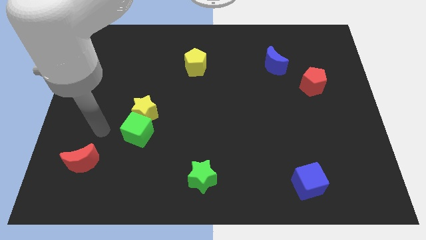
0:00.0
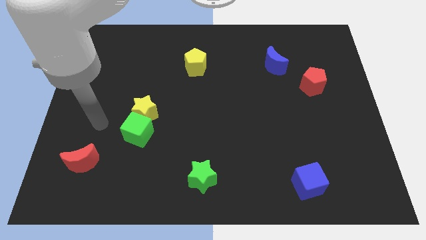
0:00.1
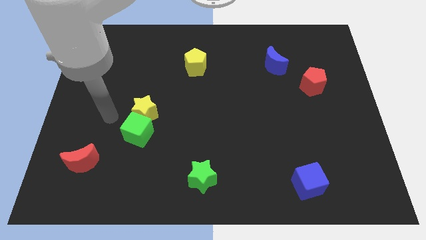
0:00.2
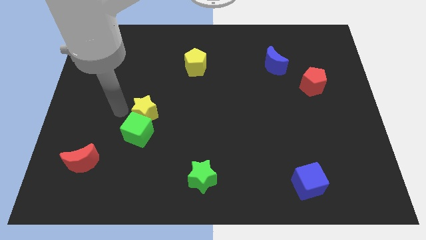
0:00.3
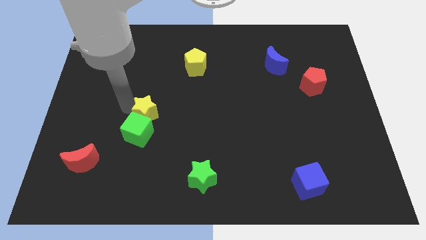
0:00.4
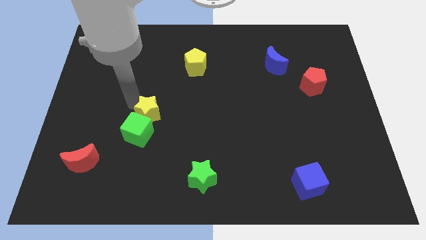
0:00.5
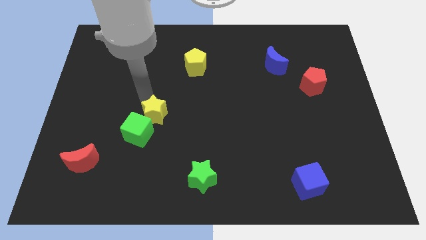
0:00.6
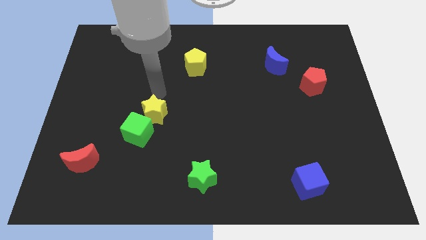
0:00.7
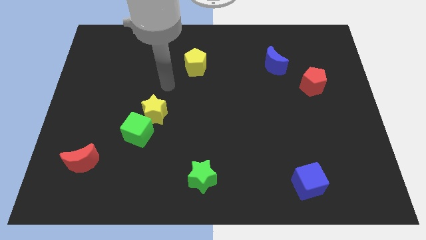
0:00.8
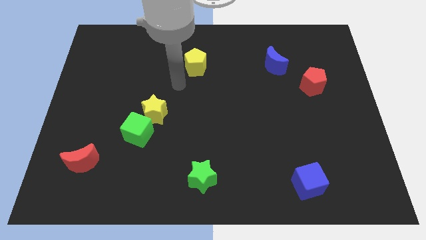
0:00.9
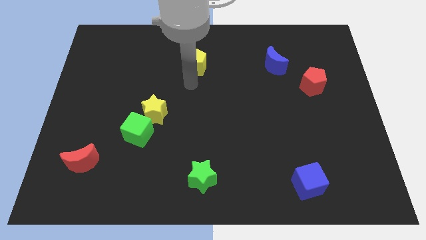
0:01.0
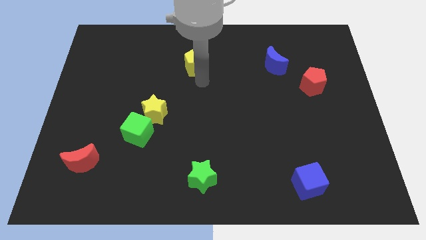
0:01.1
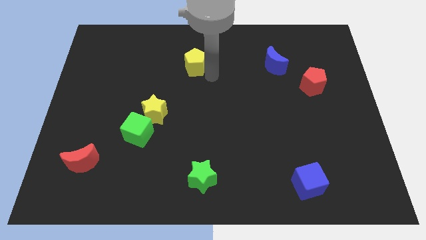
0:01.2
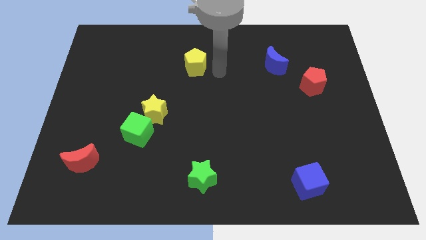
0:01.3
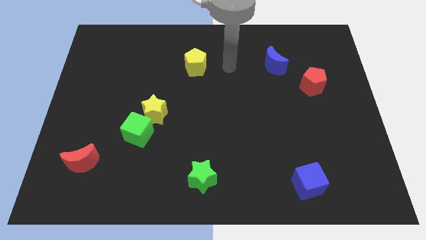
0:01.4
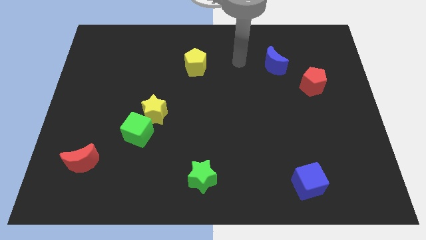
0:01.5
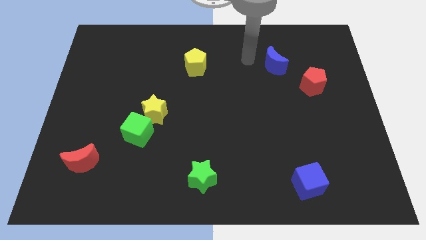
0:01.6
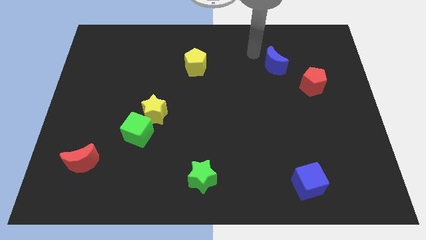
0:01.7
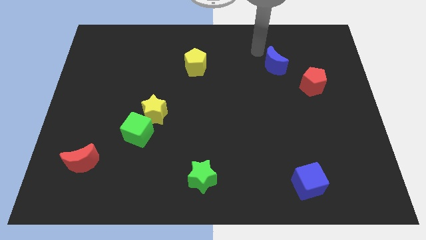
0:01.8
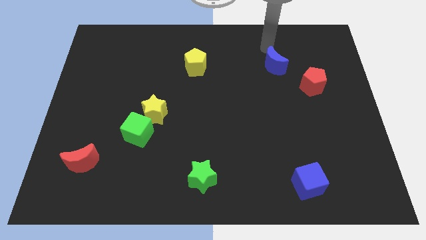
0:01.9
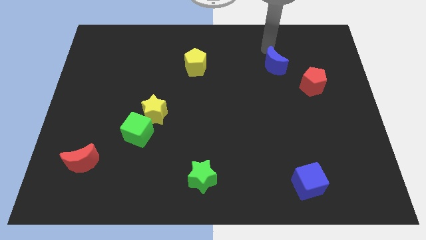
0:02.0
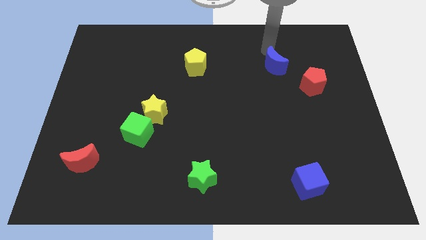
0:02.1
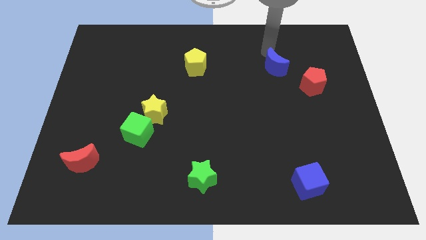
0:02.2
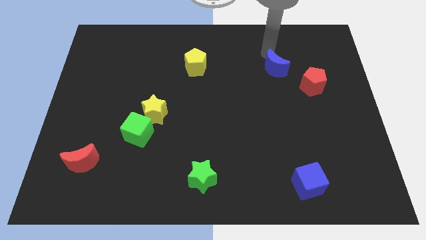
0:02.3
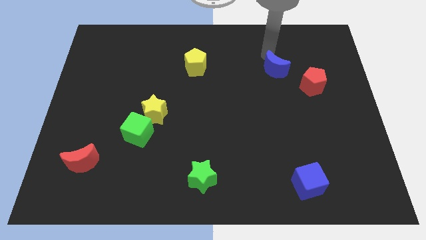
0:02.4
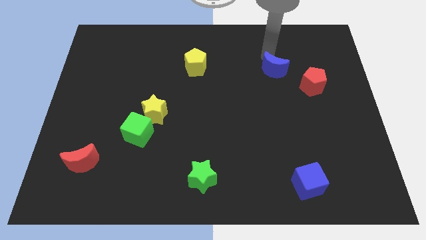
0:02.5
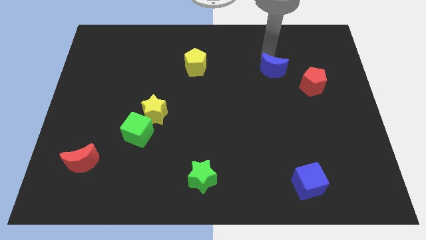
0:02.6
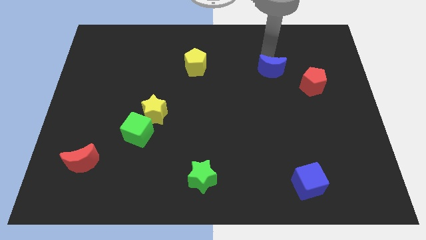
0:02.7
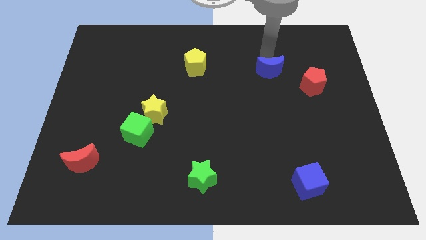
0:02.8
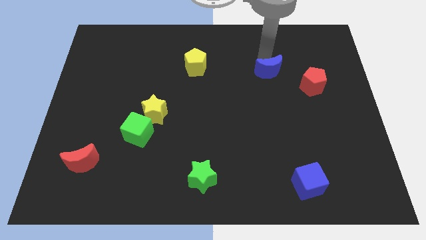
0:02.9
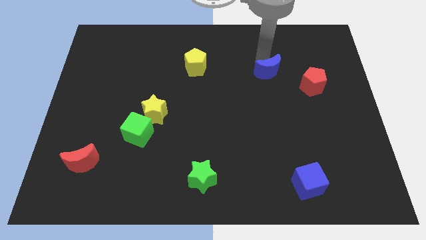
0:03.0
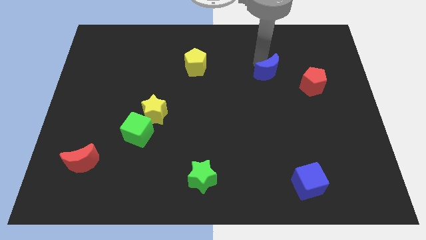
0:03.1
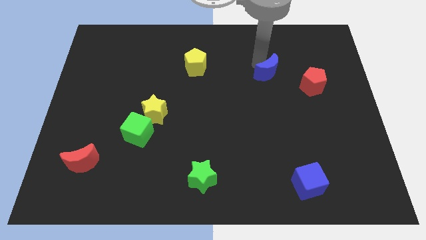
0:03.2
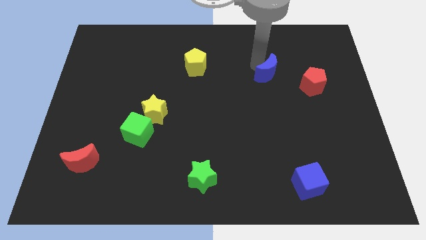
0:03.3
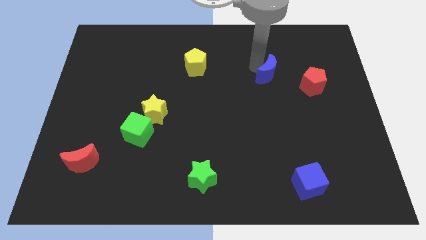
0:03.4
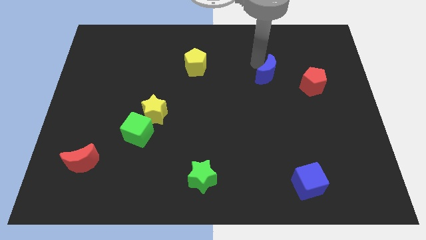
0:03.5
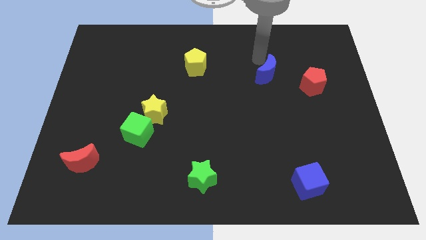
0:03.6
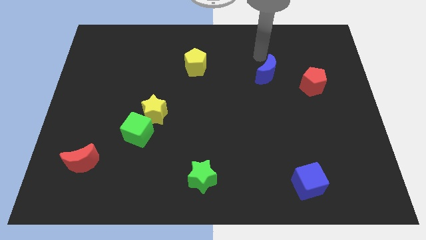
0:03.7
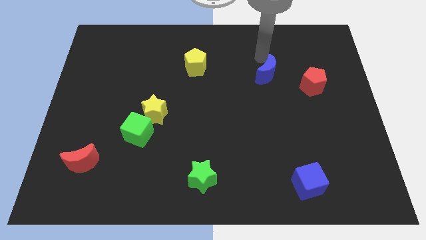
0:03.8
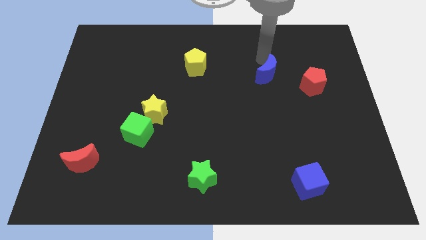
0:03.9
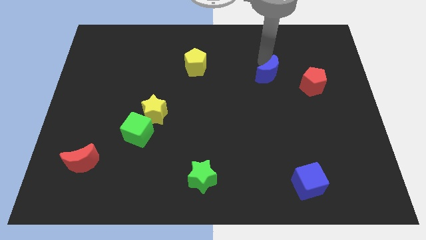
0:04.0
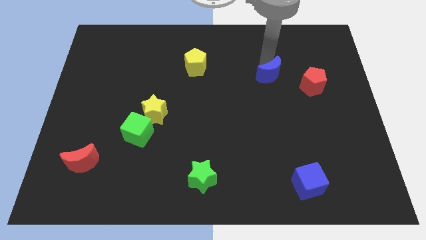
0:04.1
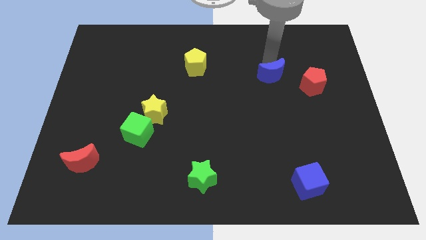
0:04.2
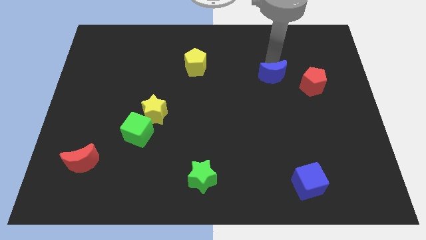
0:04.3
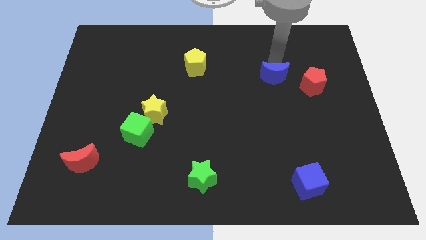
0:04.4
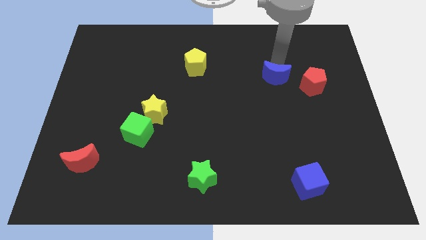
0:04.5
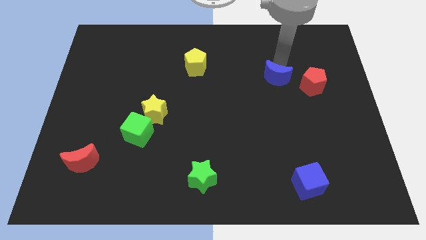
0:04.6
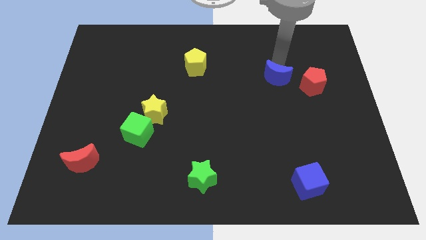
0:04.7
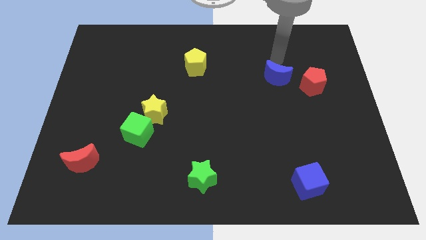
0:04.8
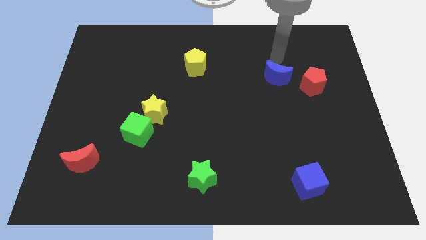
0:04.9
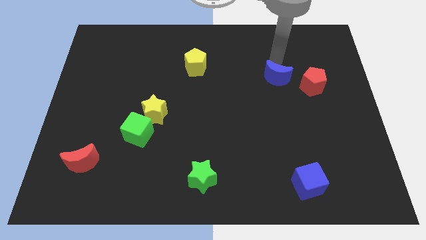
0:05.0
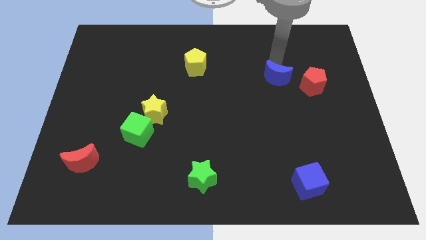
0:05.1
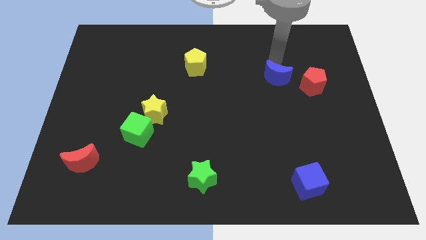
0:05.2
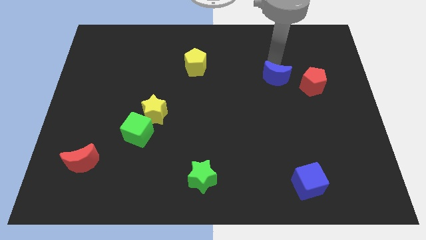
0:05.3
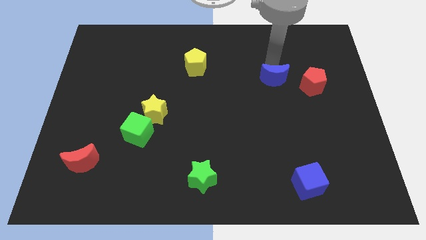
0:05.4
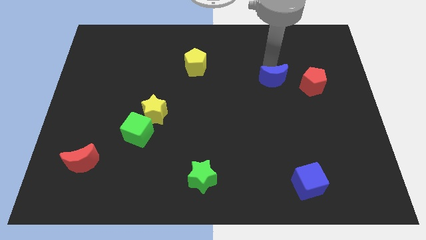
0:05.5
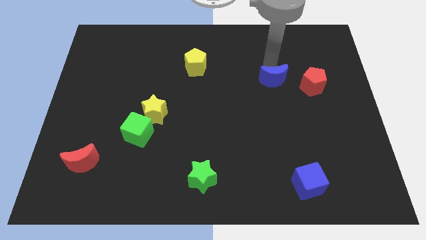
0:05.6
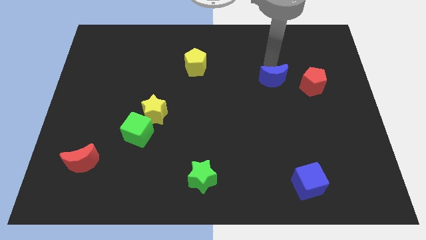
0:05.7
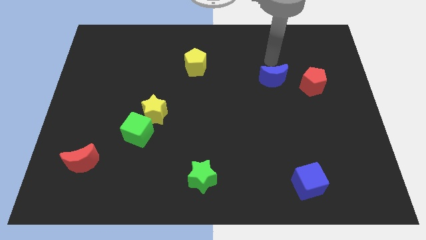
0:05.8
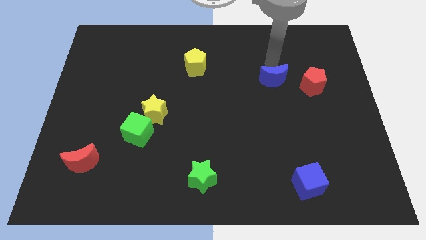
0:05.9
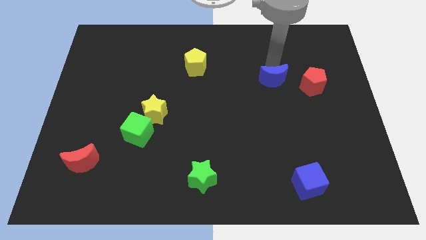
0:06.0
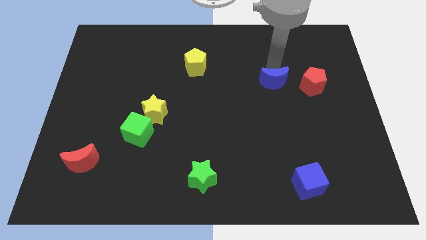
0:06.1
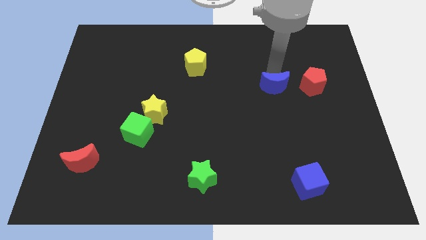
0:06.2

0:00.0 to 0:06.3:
move the blue moon slightly downwards

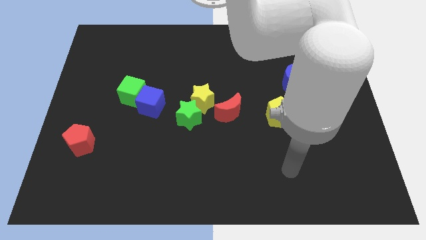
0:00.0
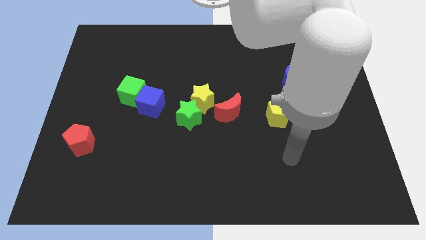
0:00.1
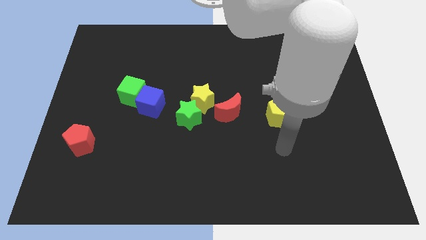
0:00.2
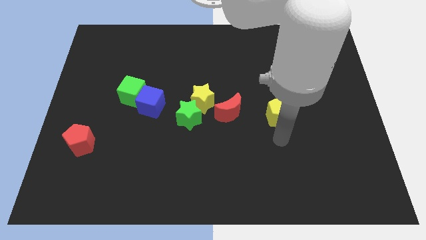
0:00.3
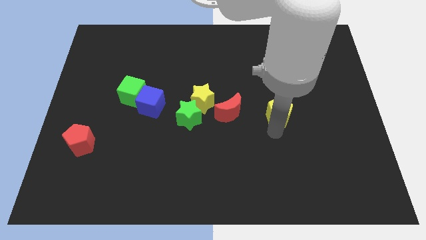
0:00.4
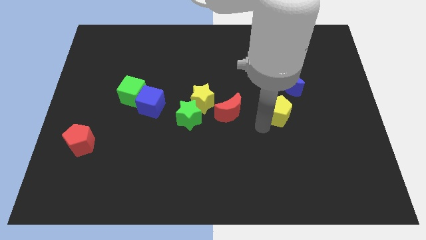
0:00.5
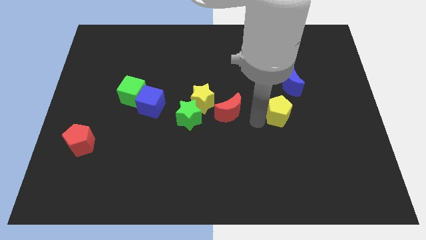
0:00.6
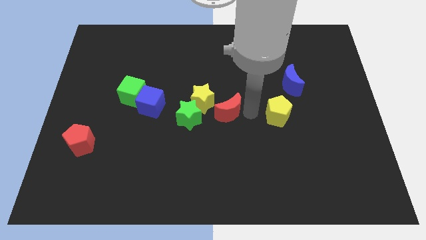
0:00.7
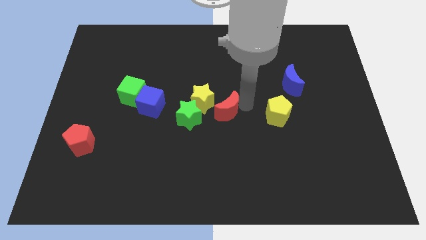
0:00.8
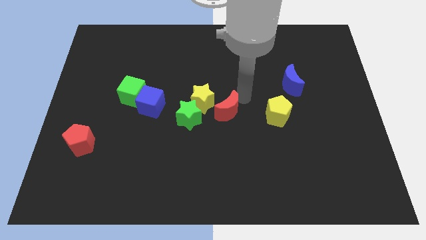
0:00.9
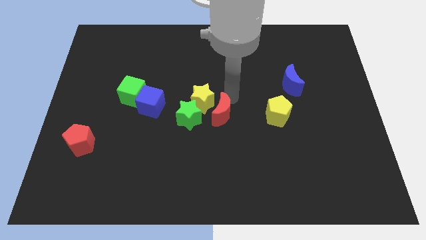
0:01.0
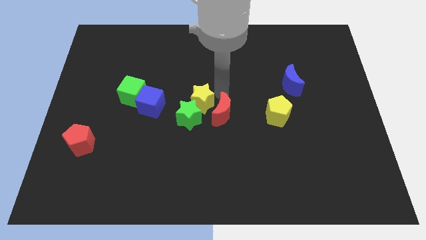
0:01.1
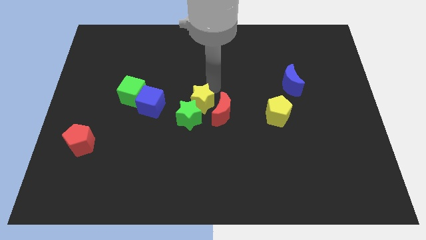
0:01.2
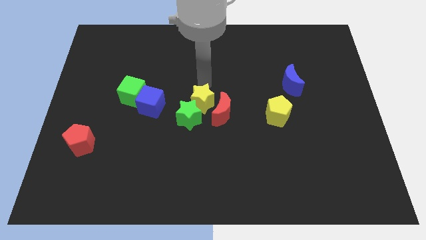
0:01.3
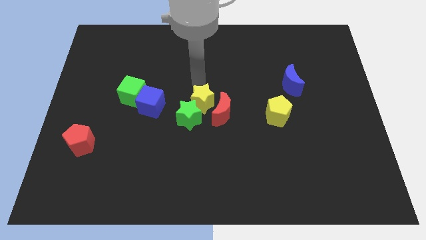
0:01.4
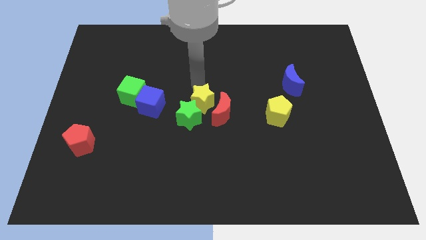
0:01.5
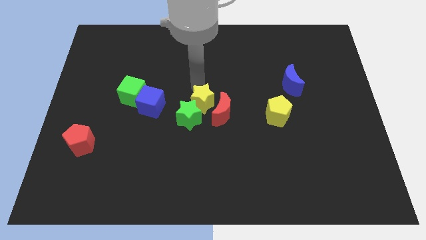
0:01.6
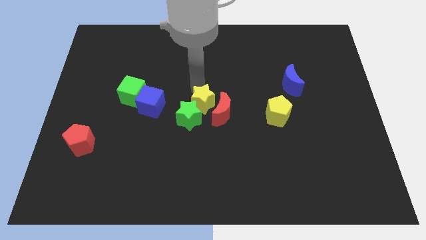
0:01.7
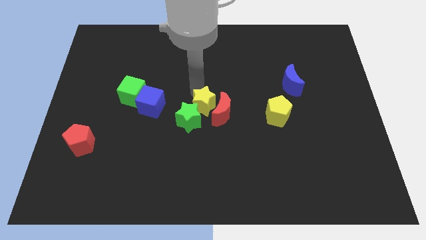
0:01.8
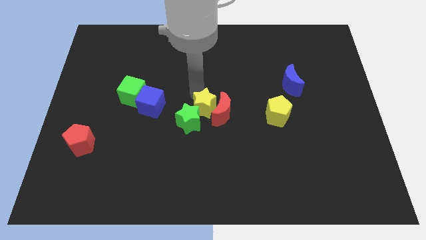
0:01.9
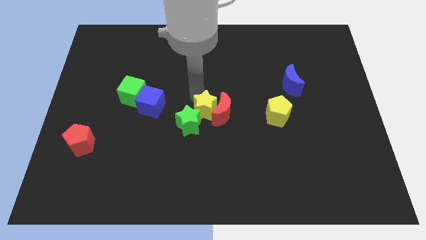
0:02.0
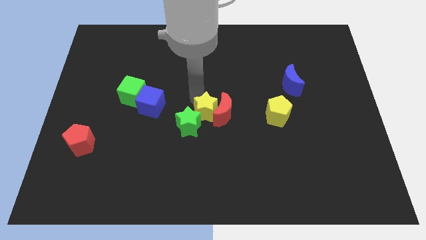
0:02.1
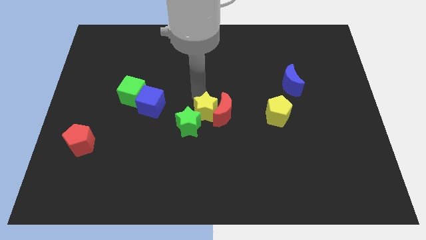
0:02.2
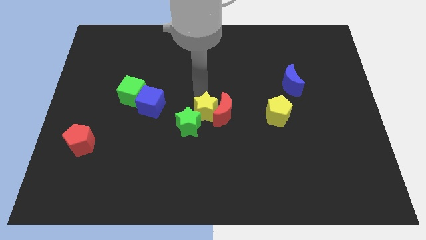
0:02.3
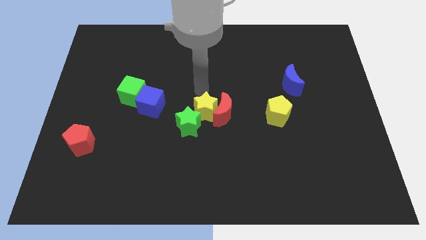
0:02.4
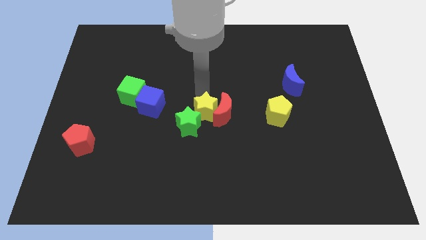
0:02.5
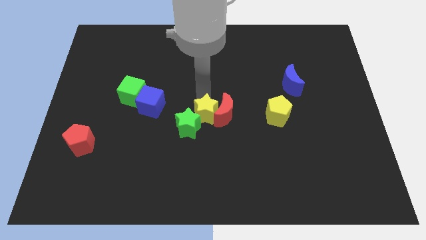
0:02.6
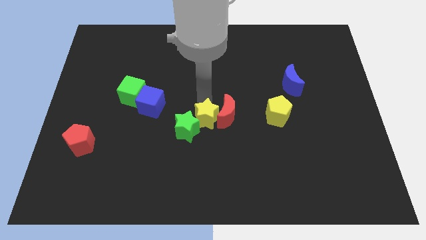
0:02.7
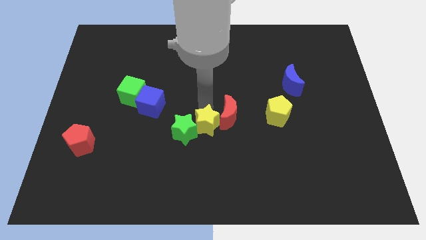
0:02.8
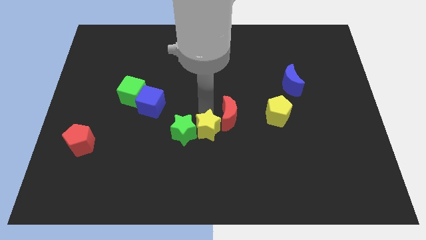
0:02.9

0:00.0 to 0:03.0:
move the yellow star downwards a bit
